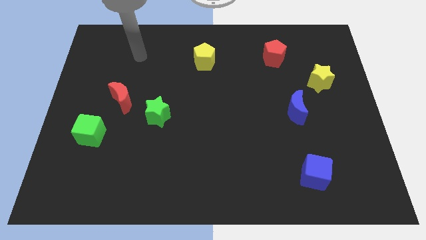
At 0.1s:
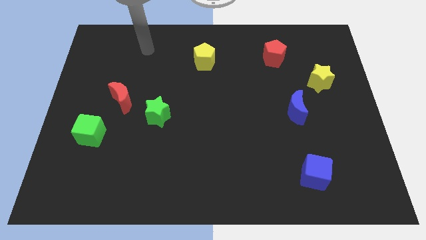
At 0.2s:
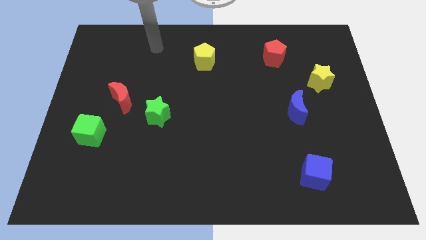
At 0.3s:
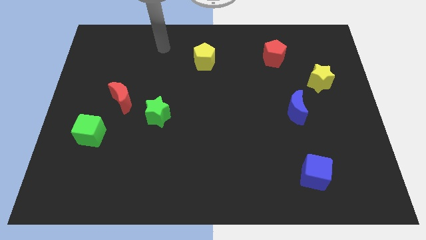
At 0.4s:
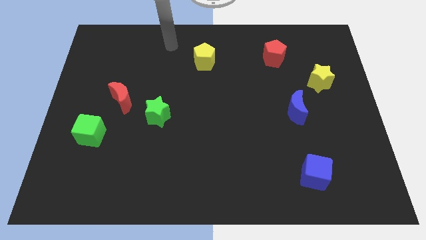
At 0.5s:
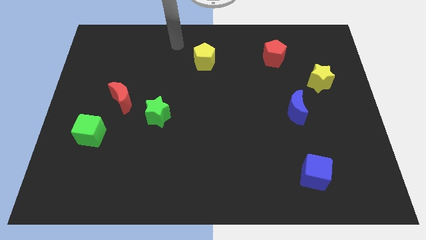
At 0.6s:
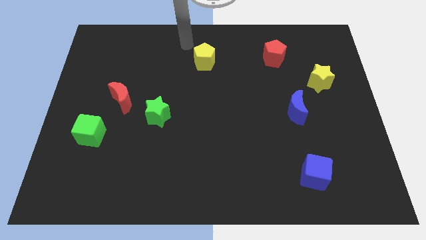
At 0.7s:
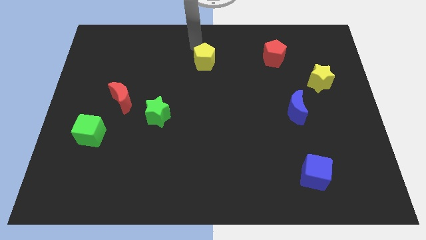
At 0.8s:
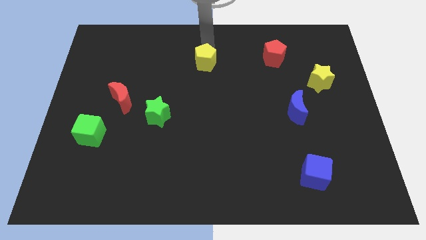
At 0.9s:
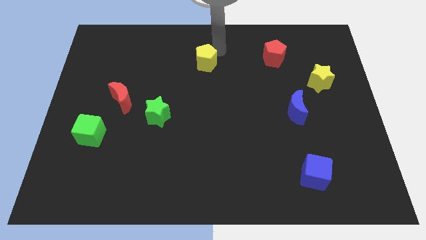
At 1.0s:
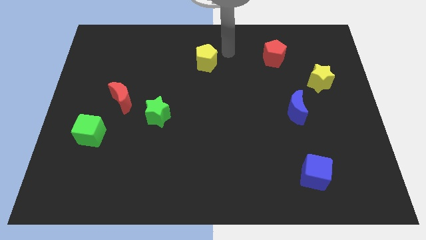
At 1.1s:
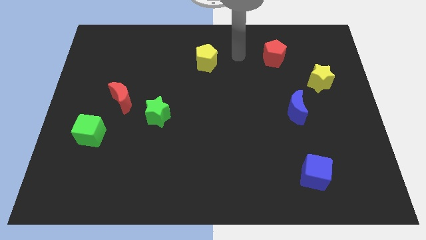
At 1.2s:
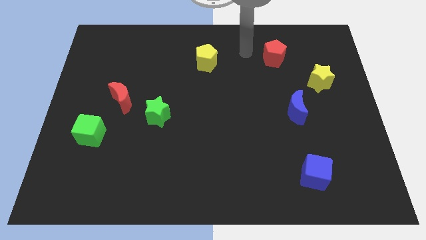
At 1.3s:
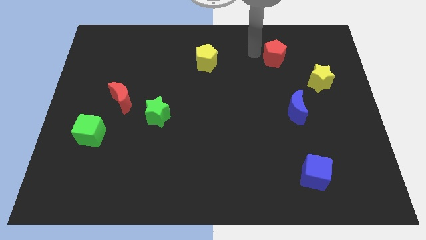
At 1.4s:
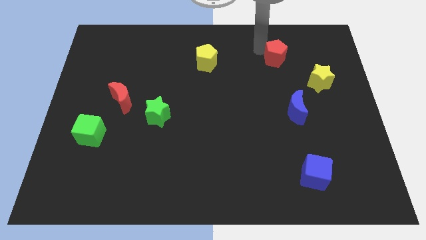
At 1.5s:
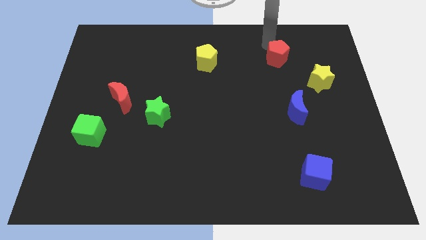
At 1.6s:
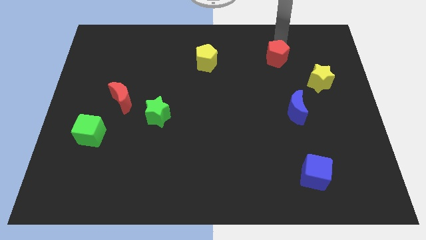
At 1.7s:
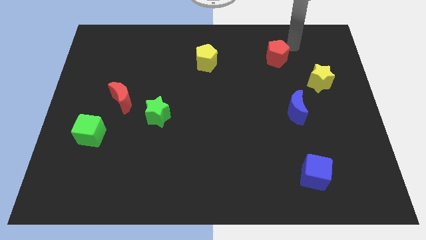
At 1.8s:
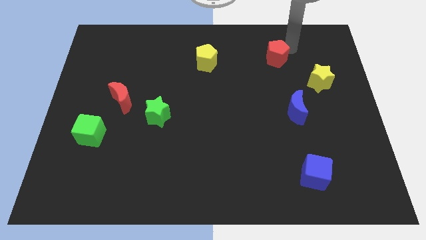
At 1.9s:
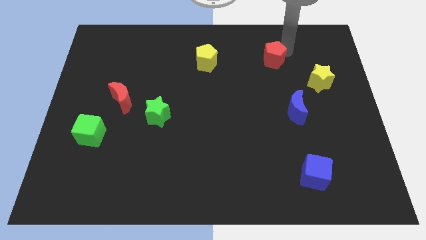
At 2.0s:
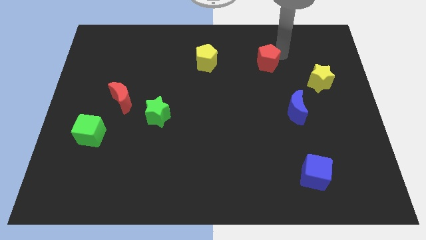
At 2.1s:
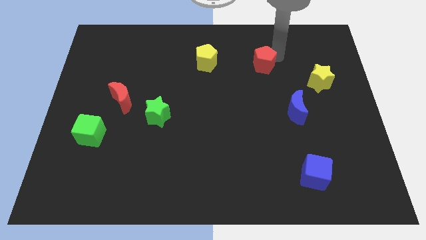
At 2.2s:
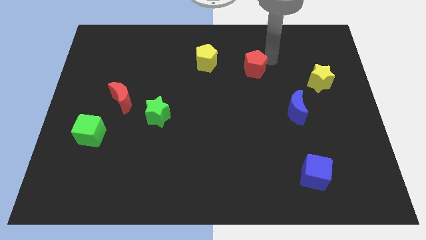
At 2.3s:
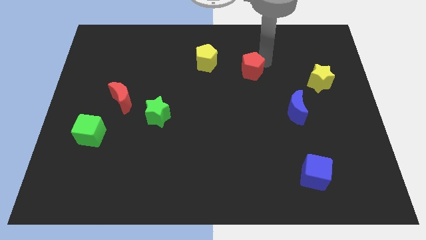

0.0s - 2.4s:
slide the red pentagon somewhat downwards and to the left

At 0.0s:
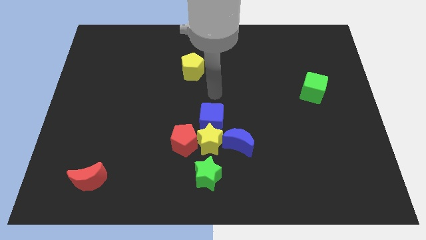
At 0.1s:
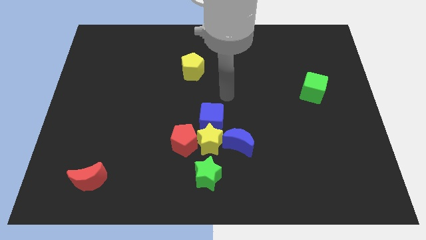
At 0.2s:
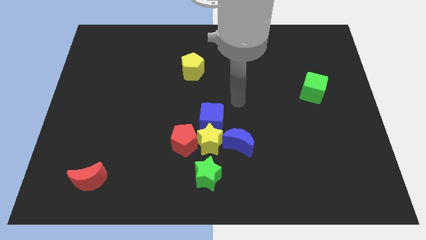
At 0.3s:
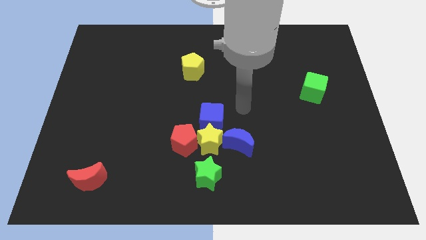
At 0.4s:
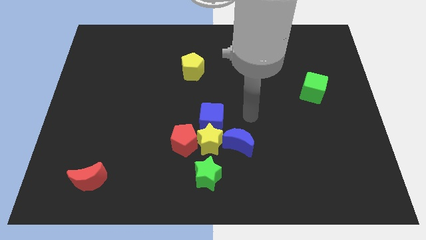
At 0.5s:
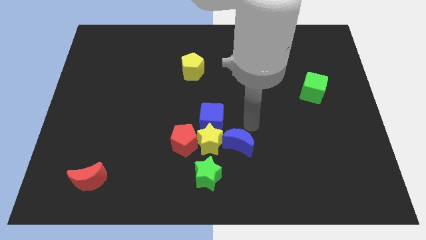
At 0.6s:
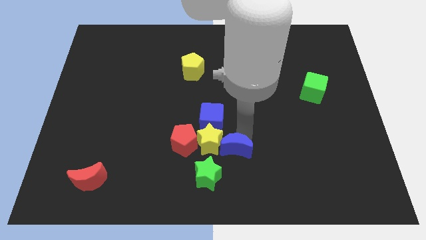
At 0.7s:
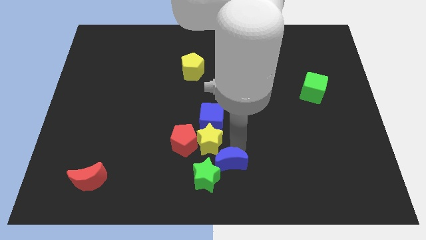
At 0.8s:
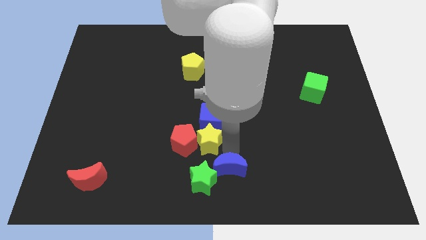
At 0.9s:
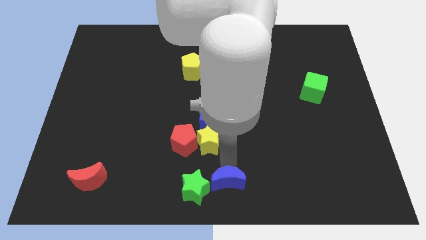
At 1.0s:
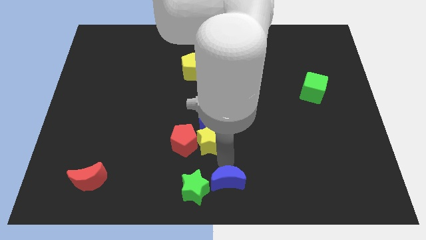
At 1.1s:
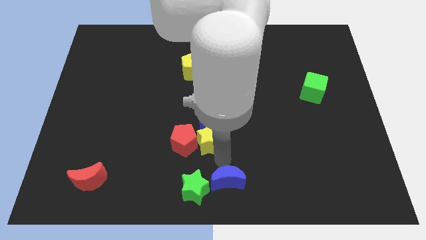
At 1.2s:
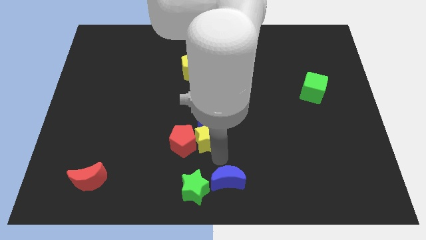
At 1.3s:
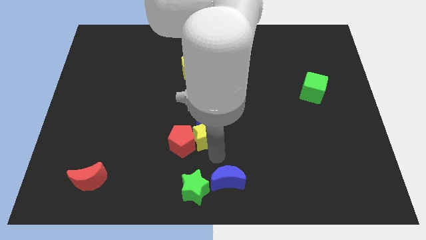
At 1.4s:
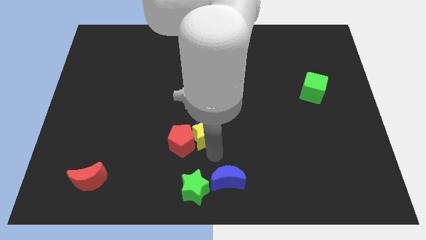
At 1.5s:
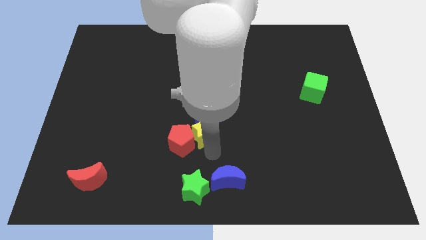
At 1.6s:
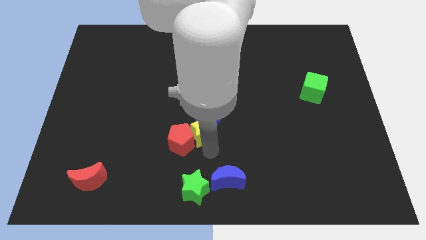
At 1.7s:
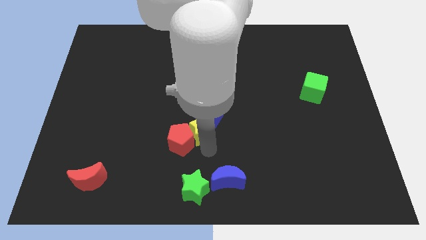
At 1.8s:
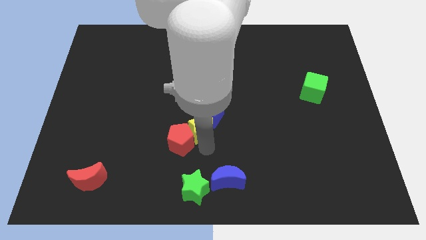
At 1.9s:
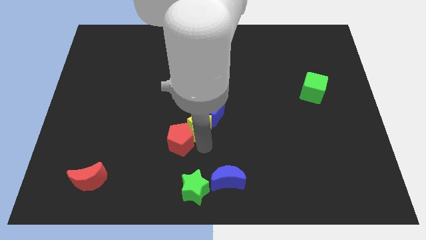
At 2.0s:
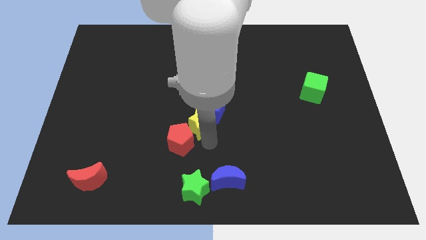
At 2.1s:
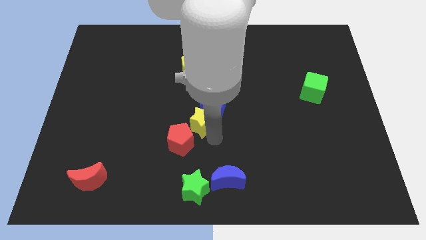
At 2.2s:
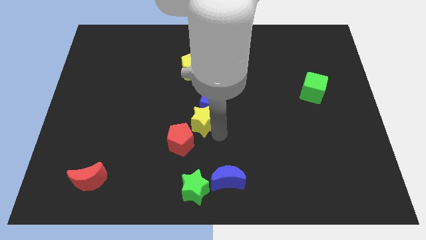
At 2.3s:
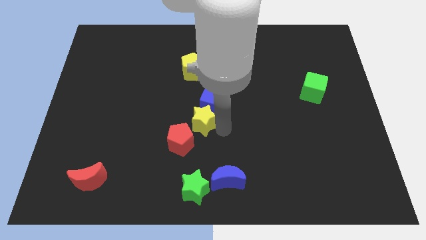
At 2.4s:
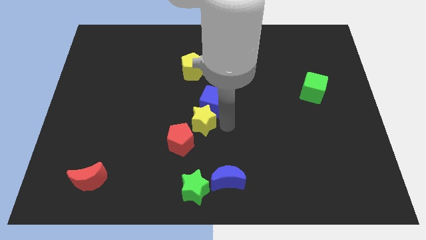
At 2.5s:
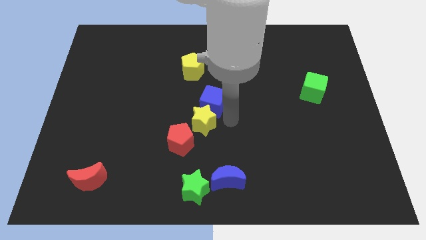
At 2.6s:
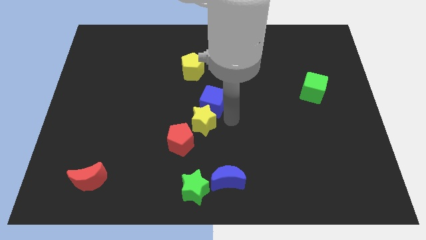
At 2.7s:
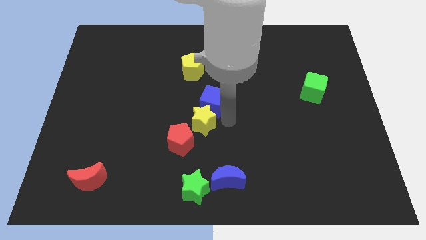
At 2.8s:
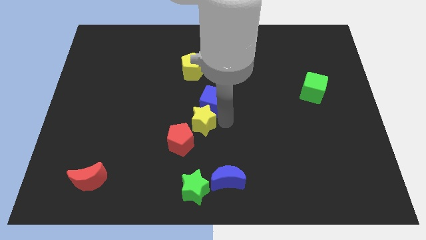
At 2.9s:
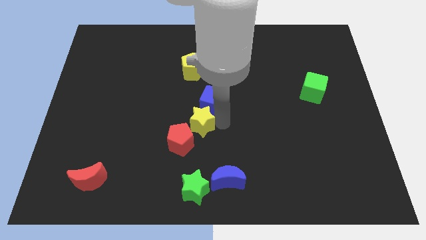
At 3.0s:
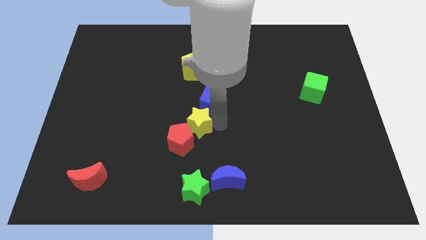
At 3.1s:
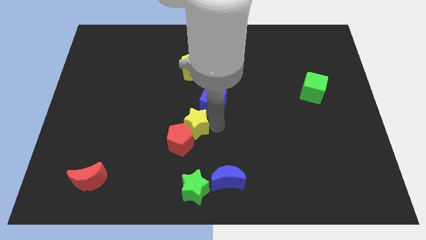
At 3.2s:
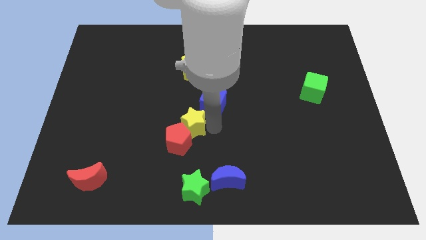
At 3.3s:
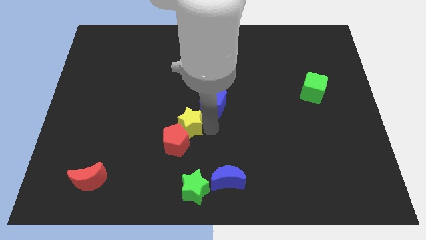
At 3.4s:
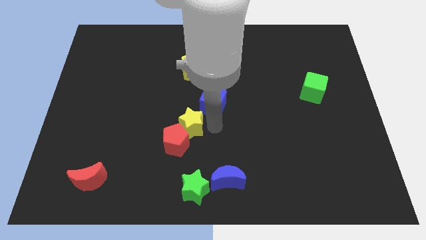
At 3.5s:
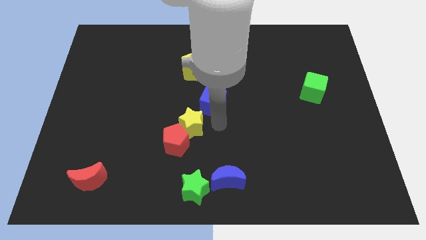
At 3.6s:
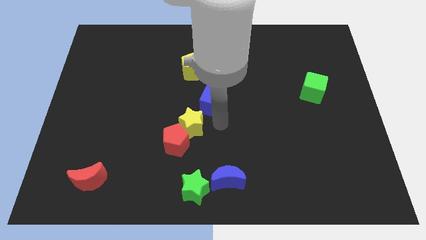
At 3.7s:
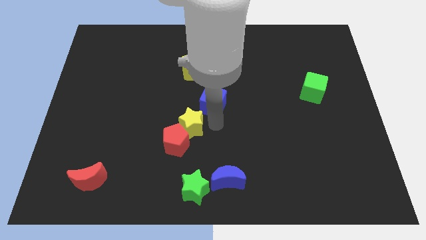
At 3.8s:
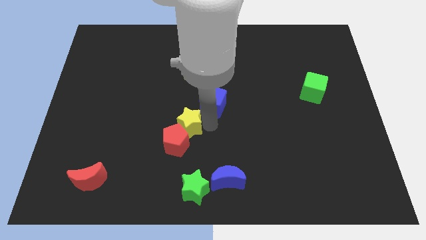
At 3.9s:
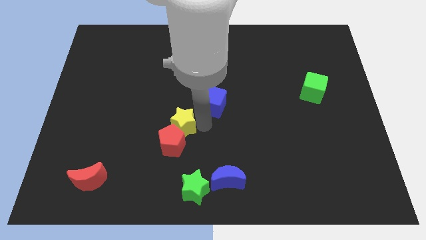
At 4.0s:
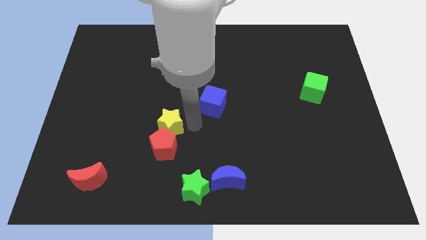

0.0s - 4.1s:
slide the yellow star to the left a little

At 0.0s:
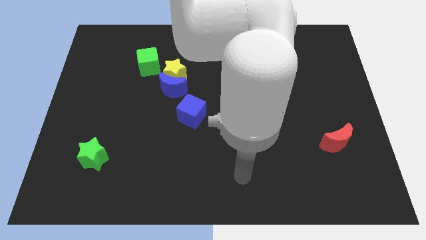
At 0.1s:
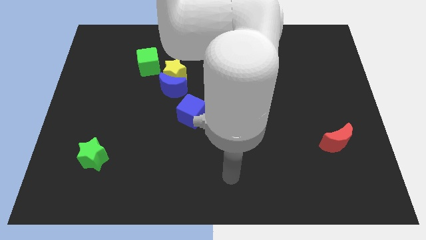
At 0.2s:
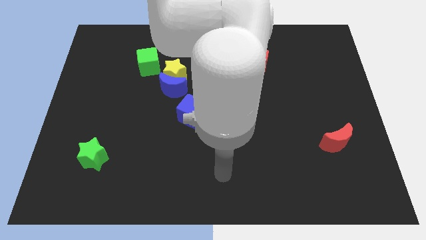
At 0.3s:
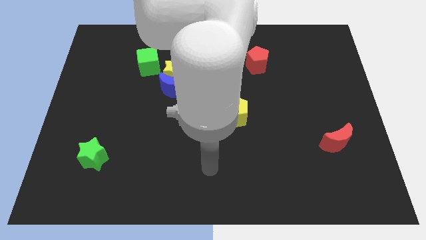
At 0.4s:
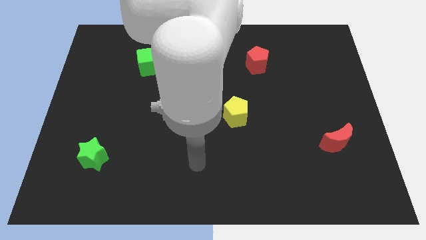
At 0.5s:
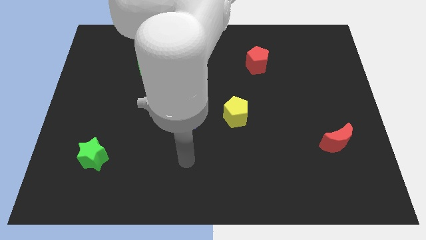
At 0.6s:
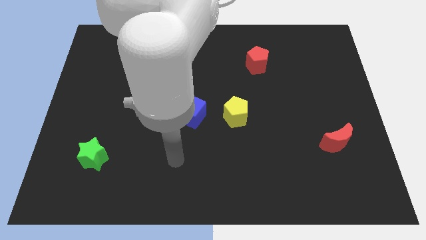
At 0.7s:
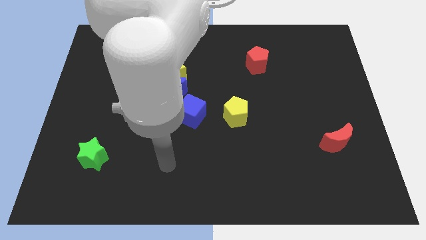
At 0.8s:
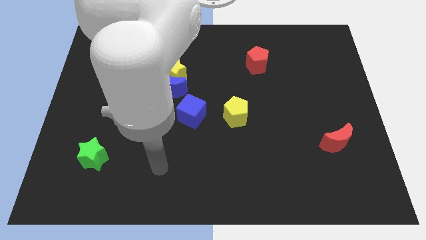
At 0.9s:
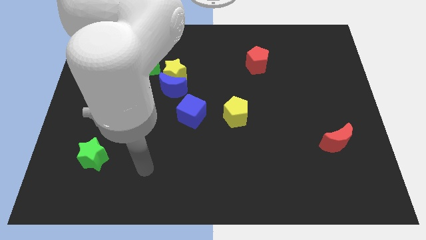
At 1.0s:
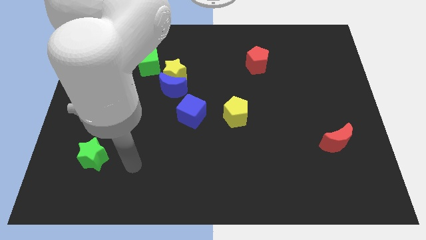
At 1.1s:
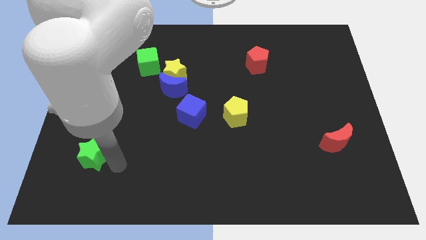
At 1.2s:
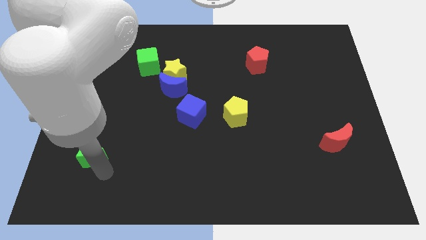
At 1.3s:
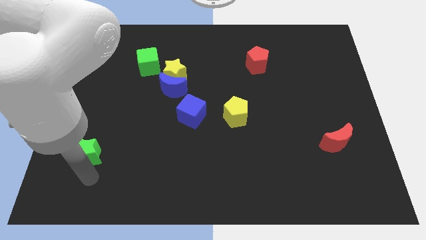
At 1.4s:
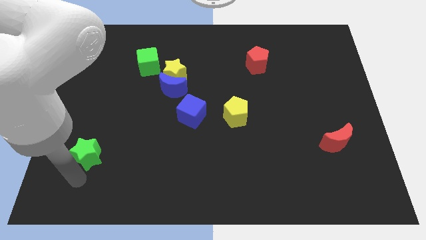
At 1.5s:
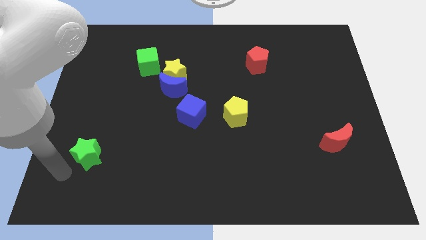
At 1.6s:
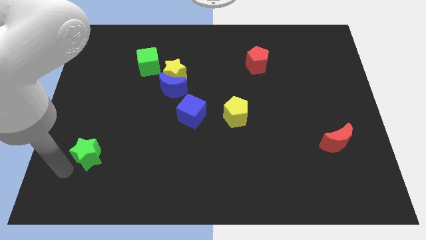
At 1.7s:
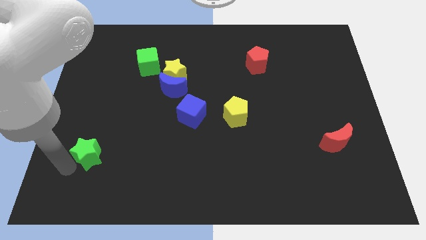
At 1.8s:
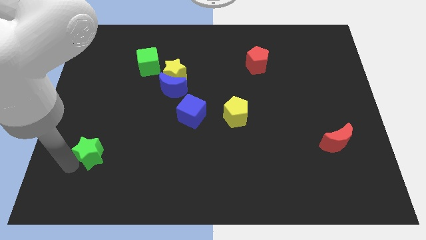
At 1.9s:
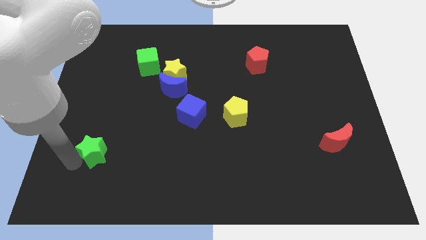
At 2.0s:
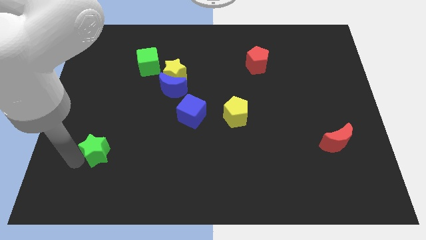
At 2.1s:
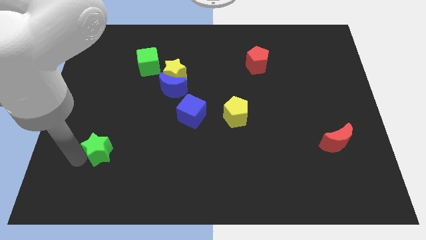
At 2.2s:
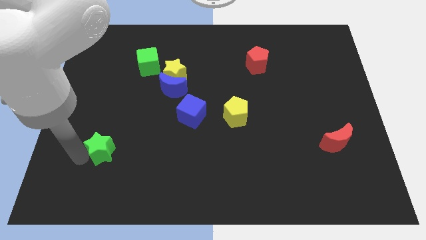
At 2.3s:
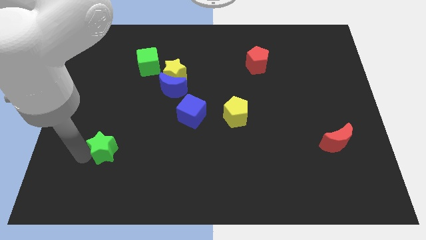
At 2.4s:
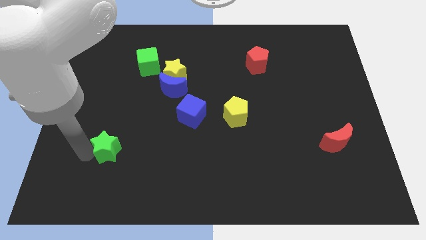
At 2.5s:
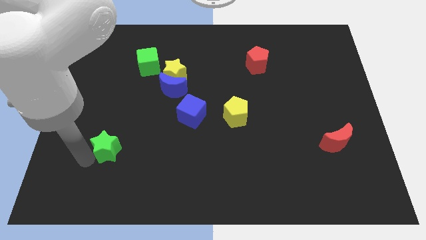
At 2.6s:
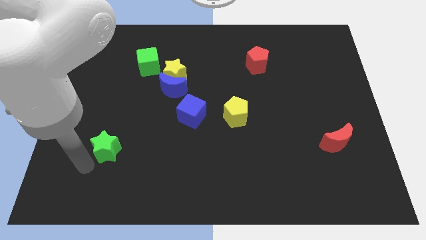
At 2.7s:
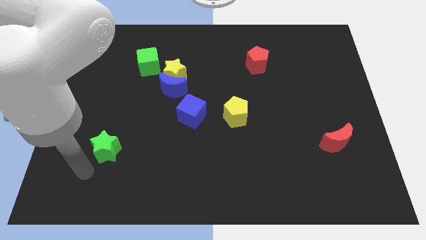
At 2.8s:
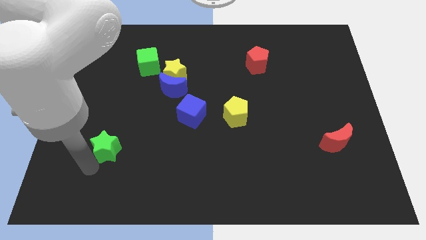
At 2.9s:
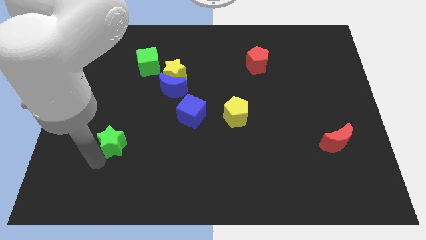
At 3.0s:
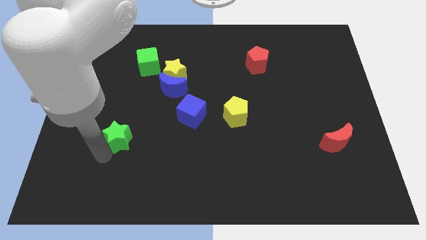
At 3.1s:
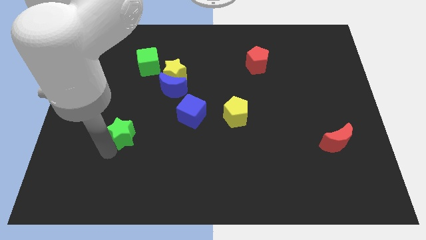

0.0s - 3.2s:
slightly push the green star diagonally upwards and to the right
